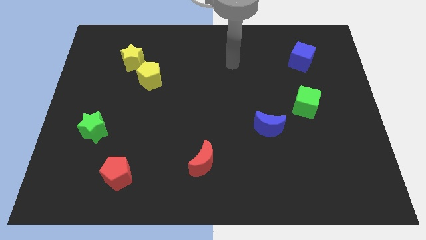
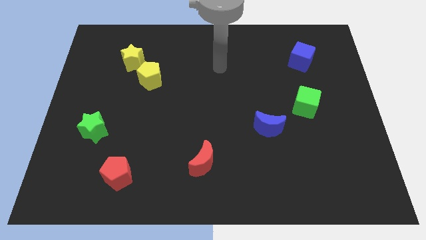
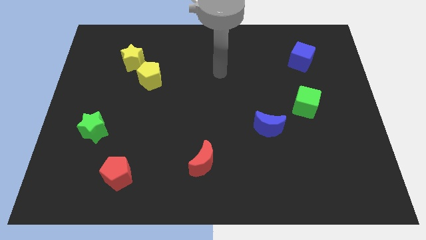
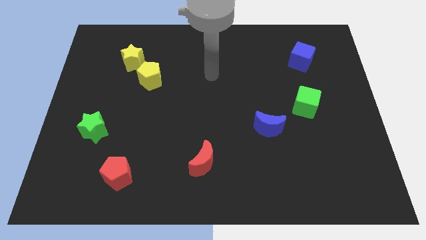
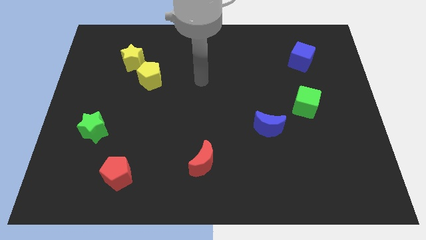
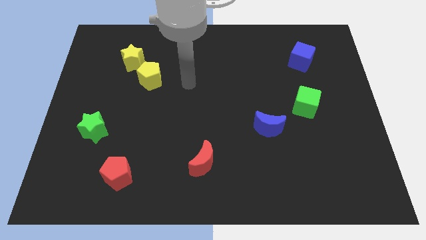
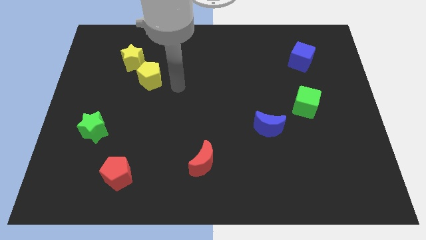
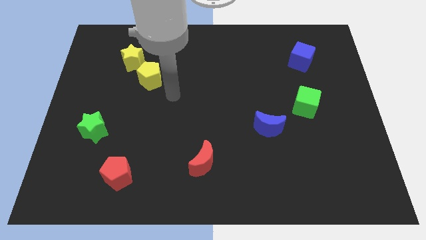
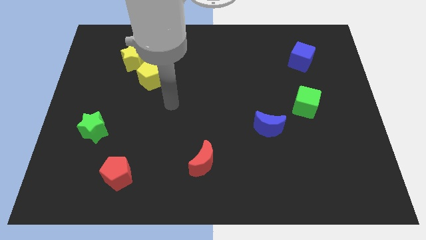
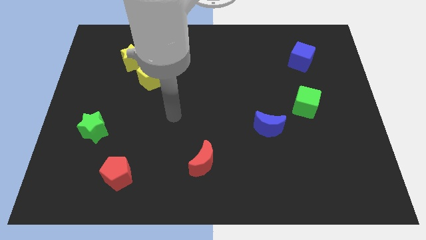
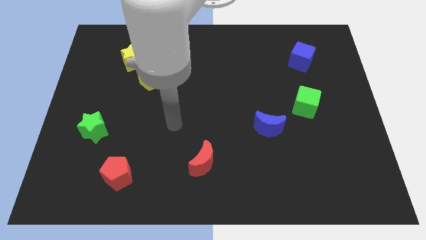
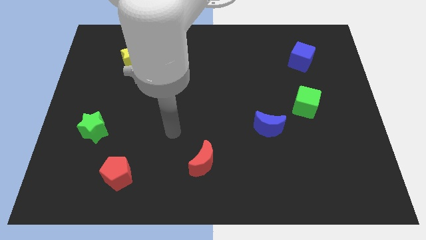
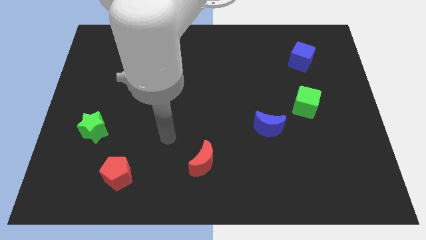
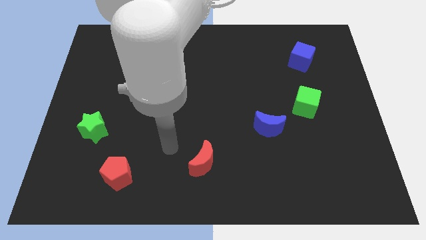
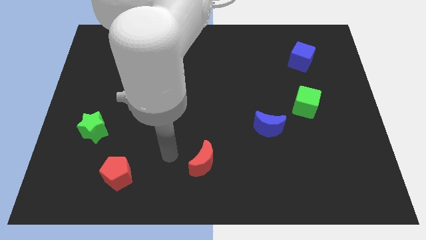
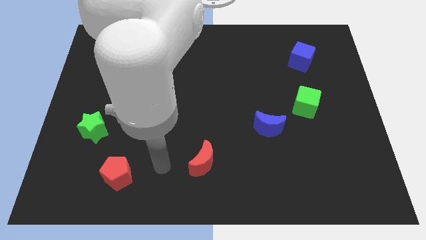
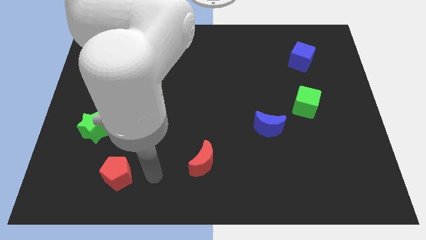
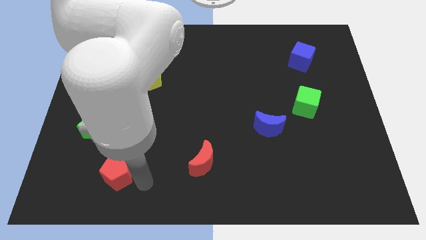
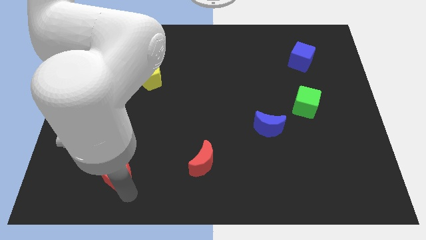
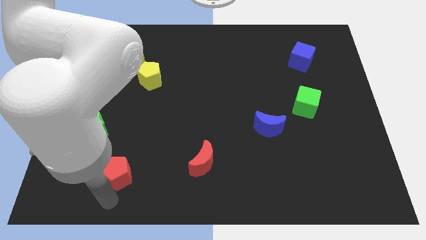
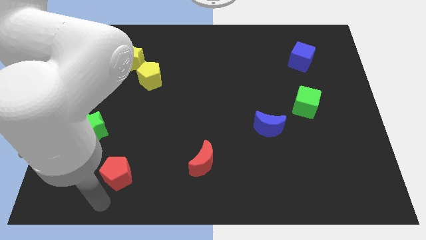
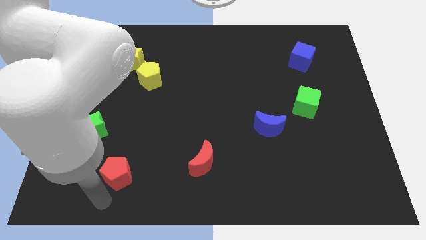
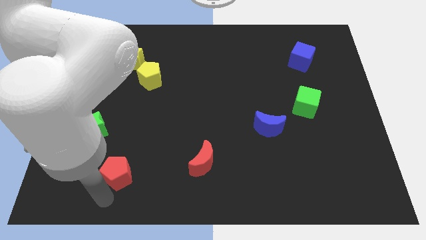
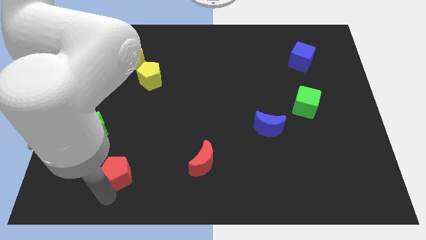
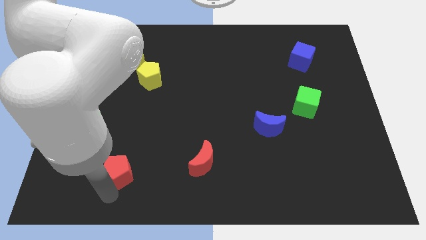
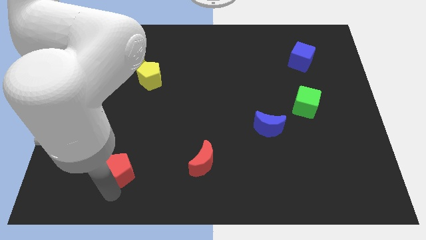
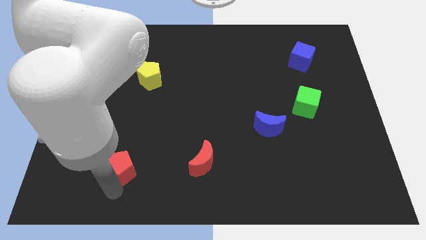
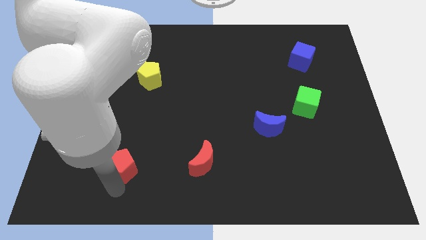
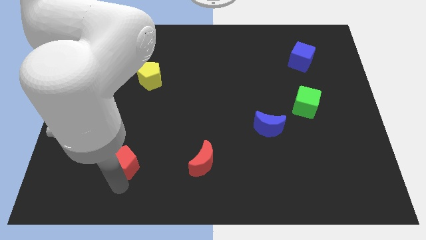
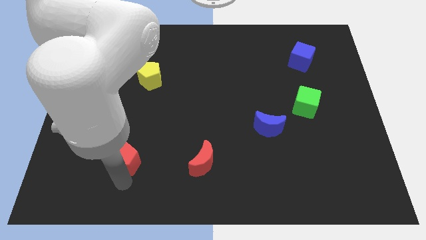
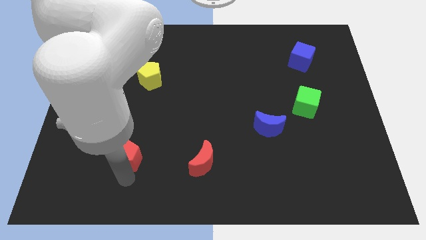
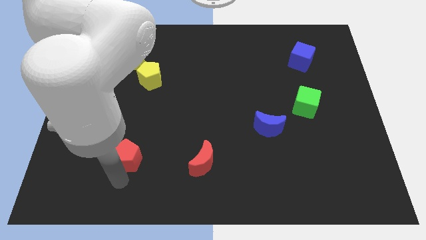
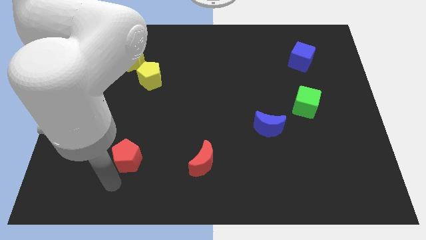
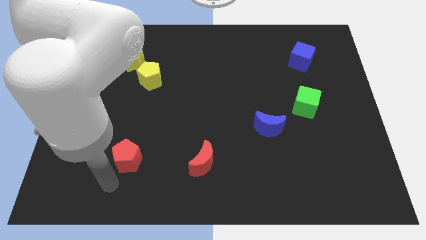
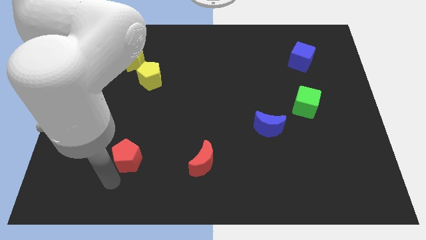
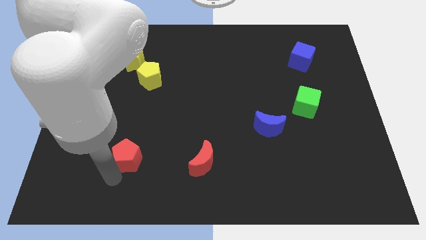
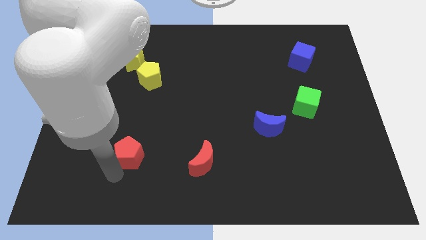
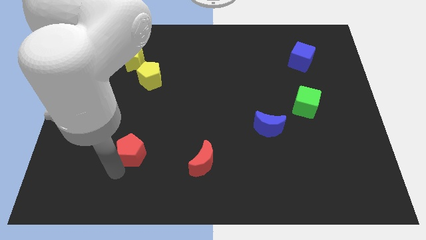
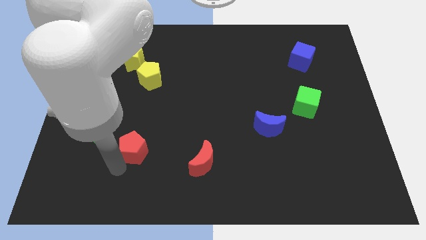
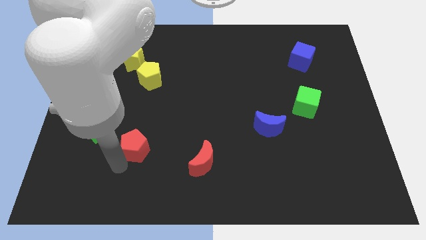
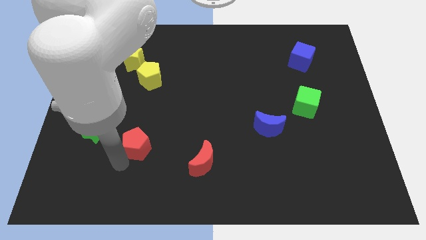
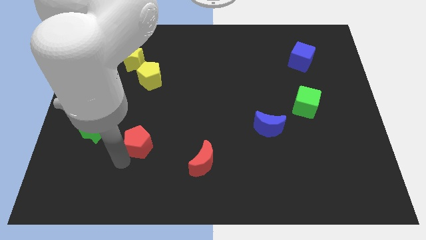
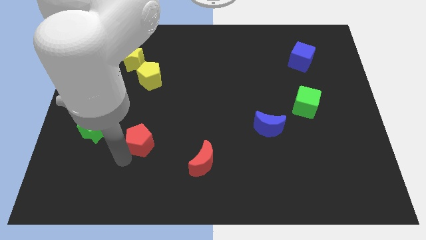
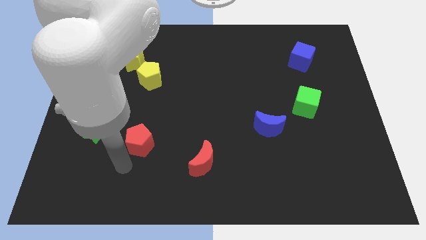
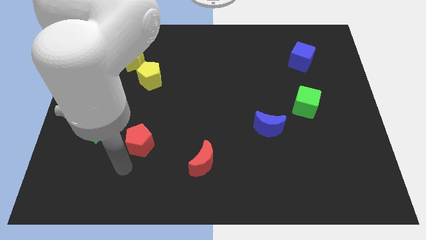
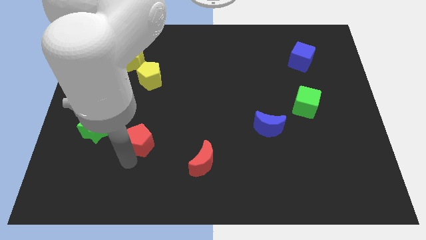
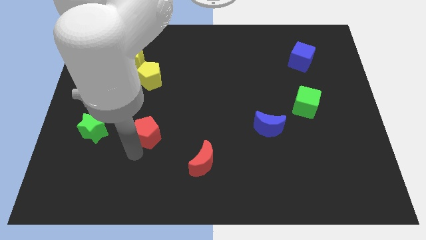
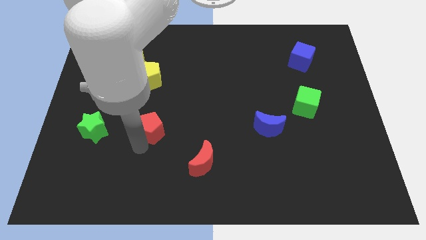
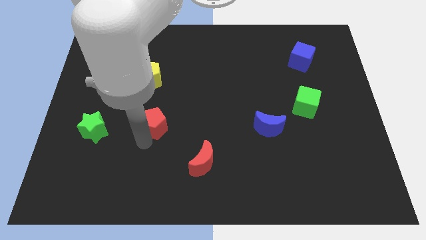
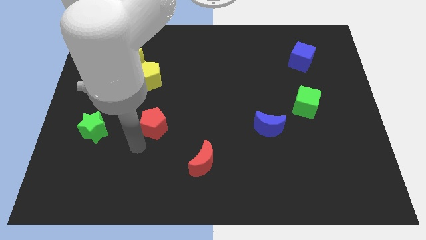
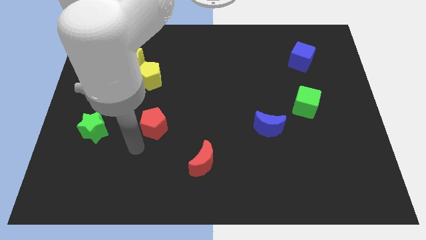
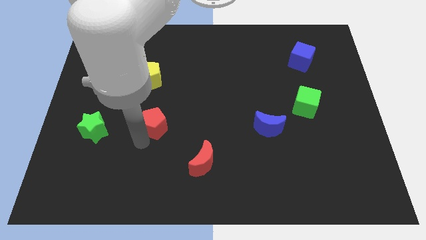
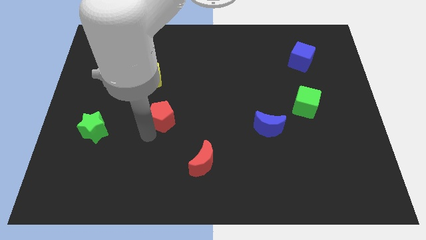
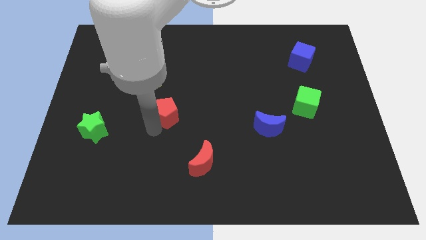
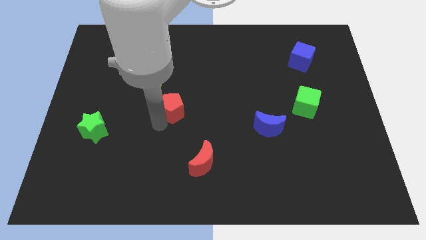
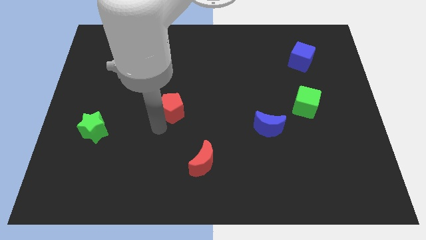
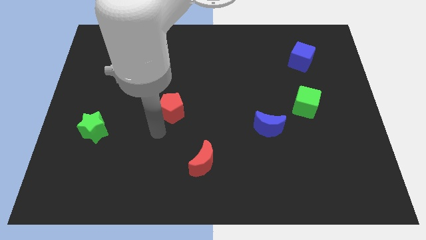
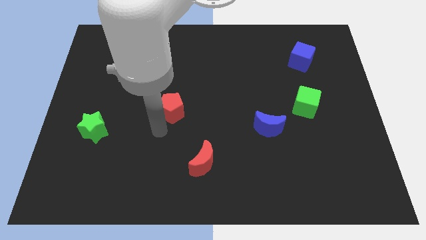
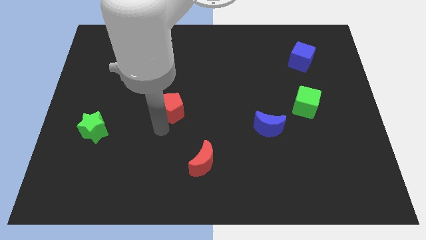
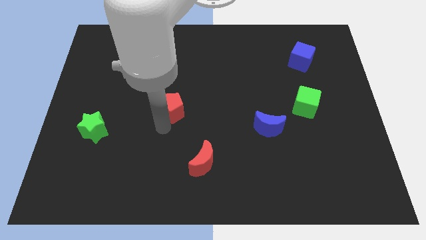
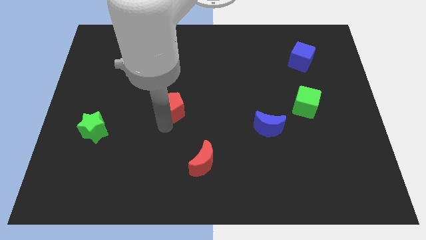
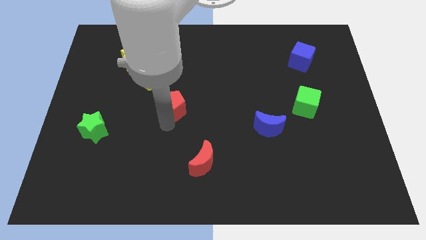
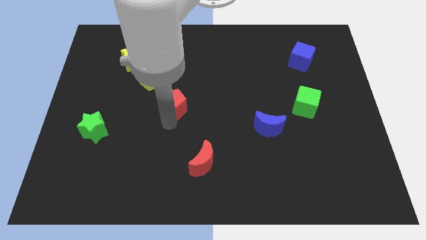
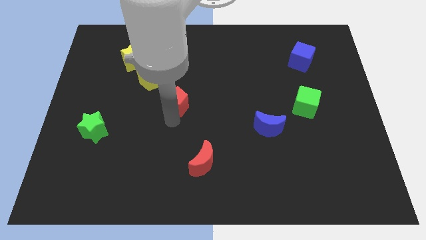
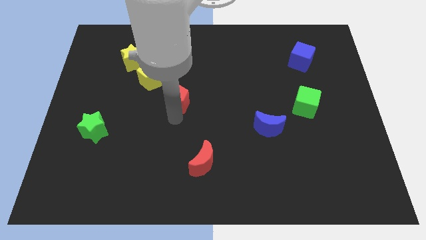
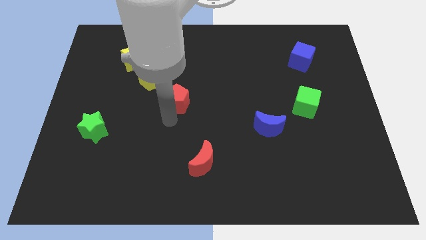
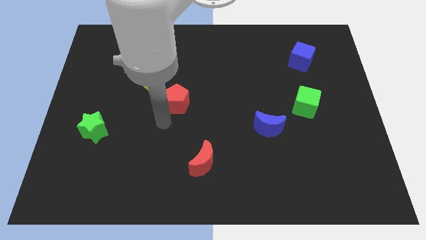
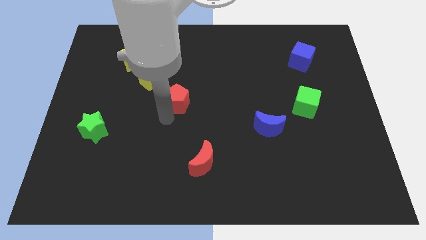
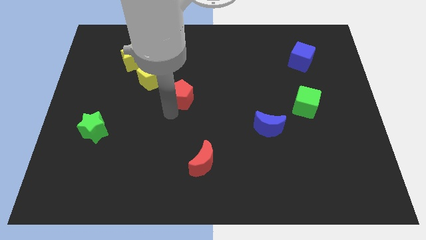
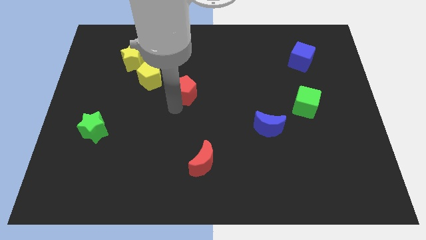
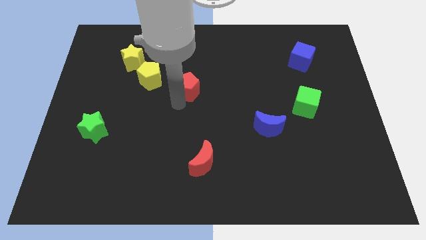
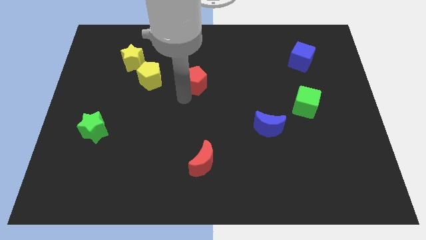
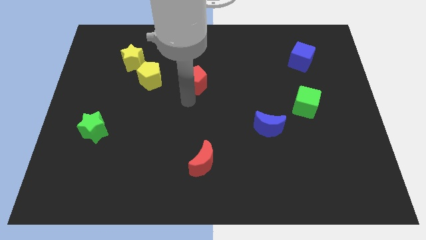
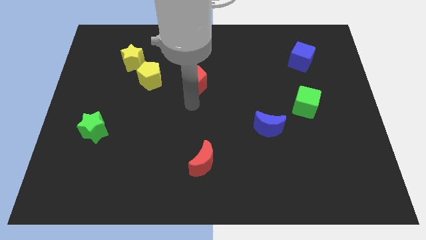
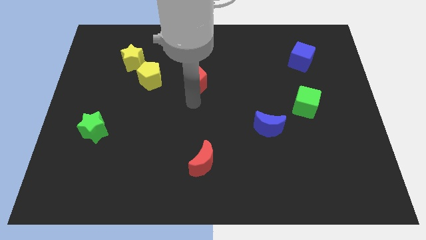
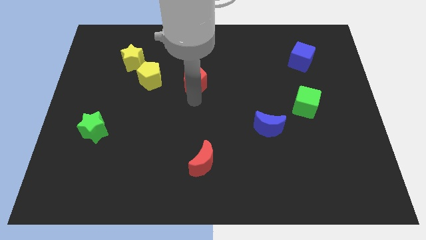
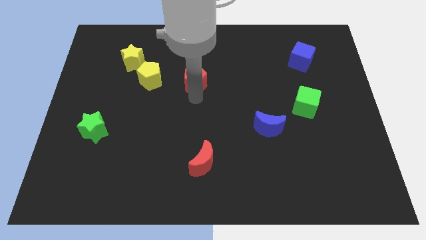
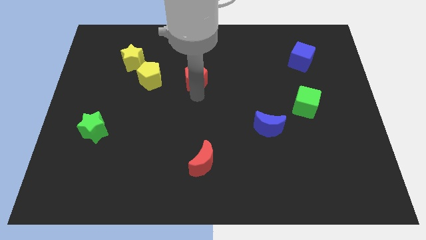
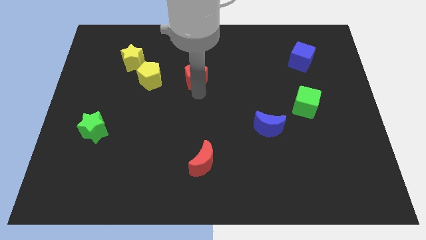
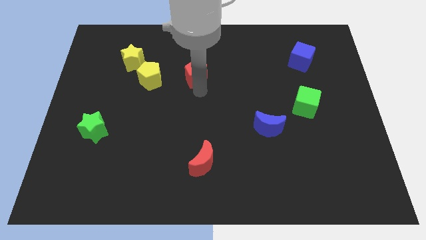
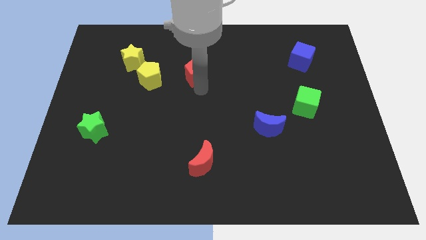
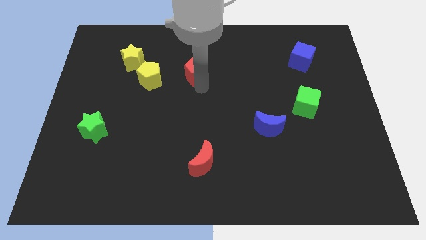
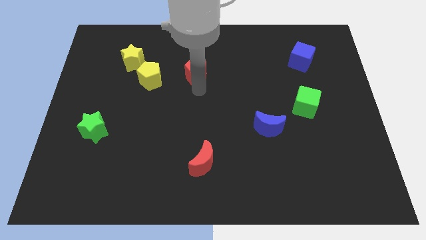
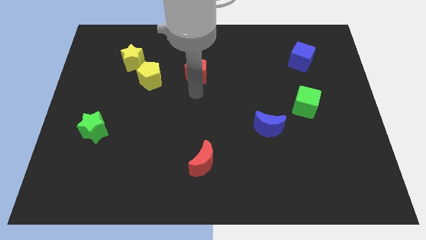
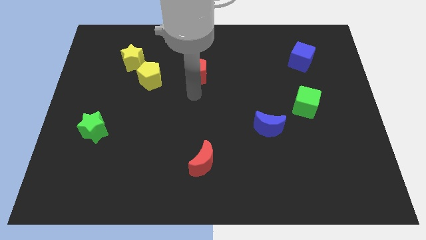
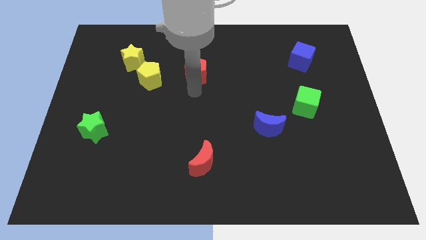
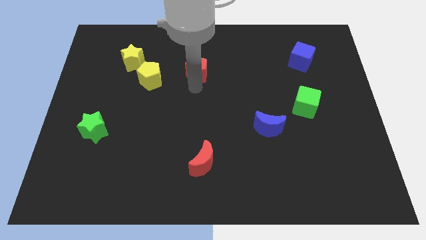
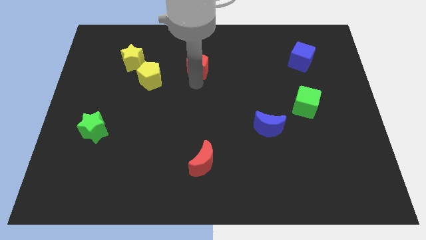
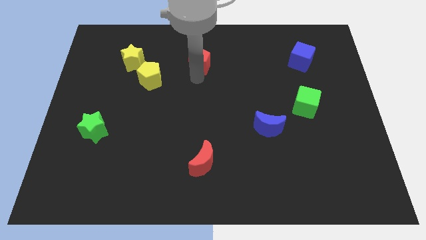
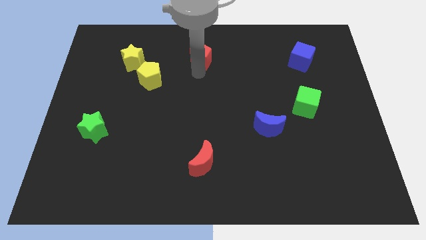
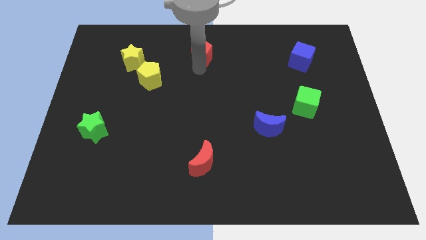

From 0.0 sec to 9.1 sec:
move the red pentagon to the top
